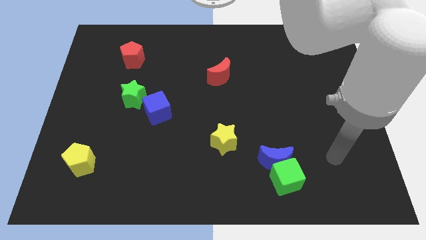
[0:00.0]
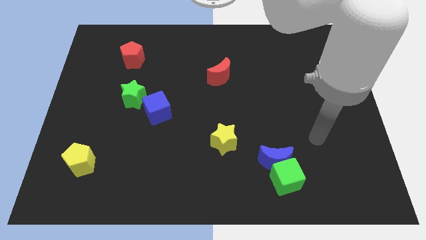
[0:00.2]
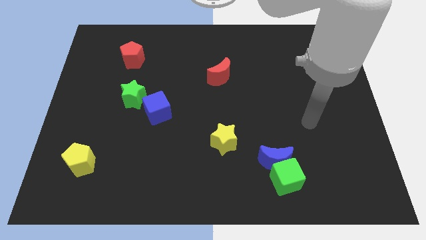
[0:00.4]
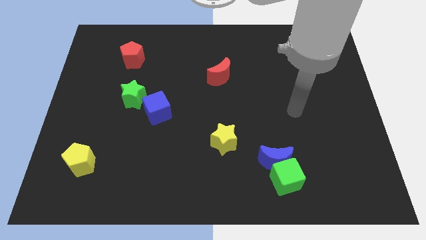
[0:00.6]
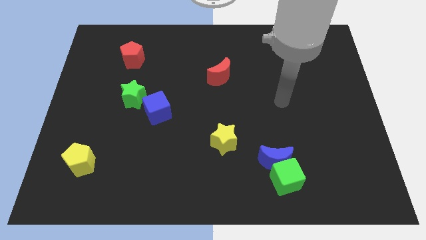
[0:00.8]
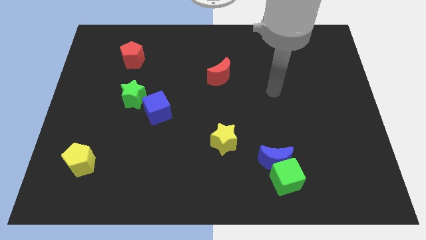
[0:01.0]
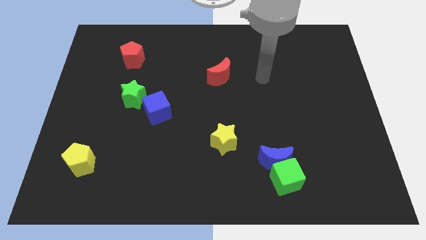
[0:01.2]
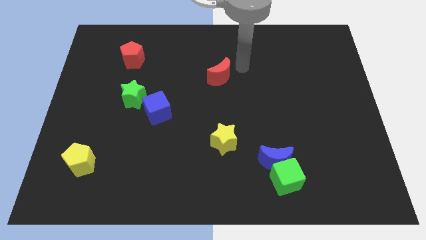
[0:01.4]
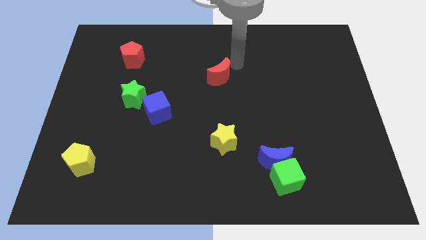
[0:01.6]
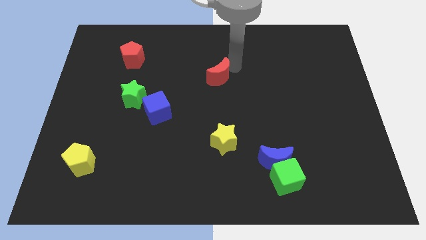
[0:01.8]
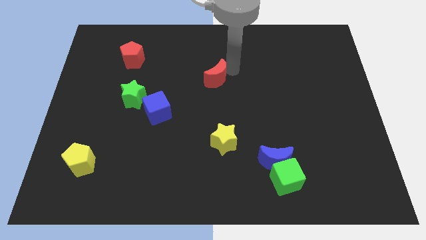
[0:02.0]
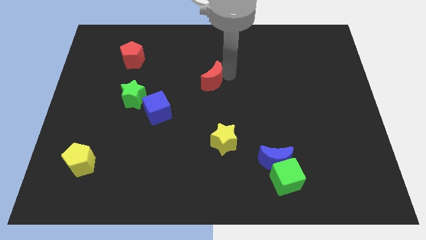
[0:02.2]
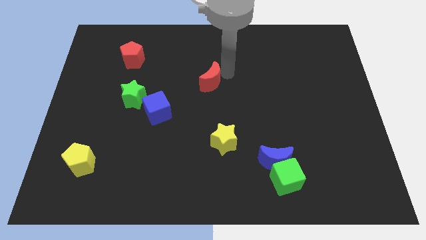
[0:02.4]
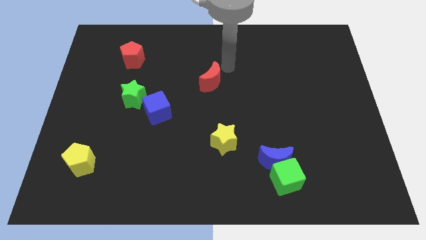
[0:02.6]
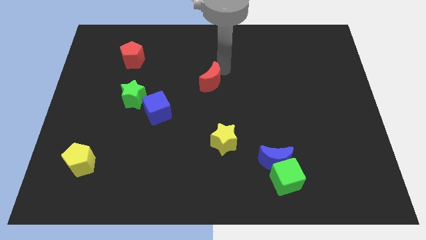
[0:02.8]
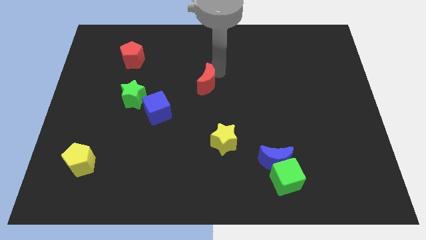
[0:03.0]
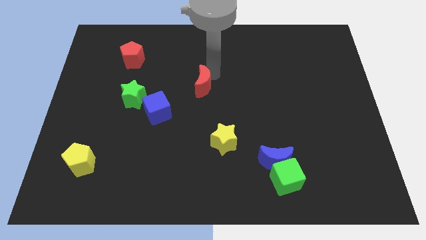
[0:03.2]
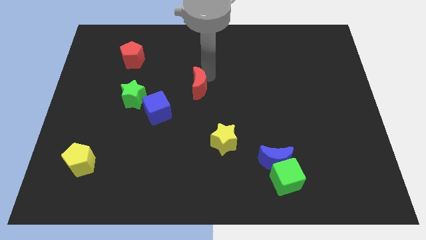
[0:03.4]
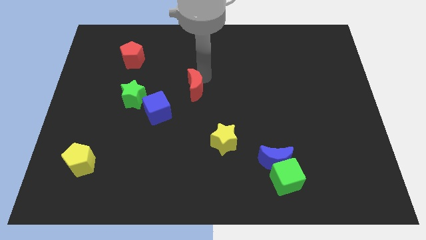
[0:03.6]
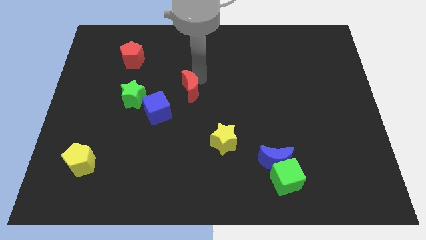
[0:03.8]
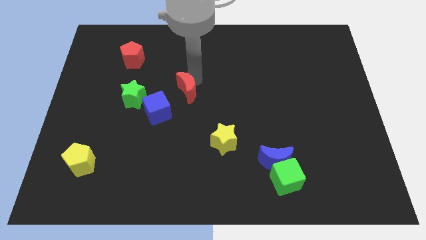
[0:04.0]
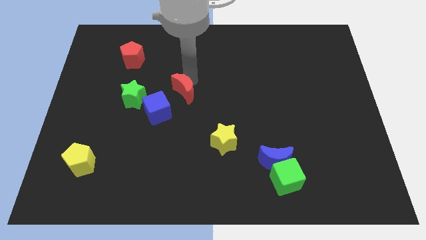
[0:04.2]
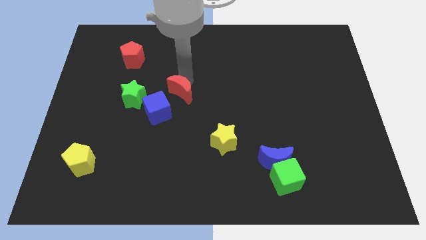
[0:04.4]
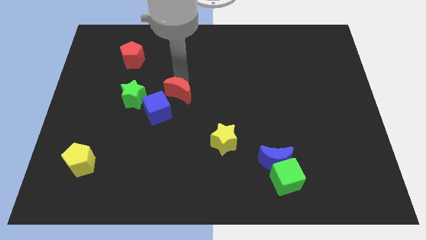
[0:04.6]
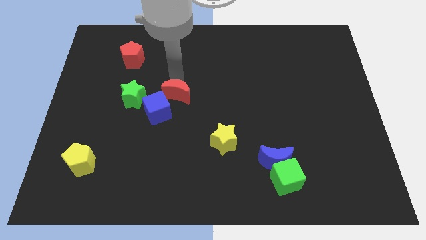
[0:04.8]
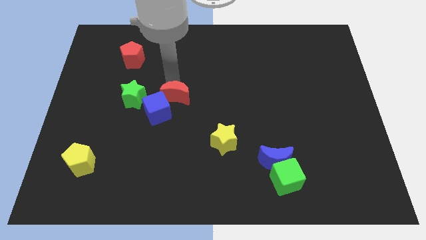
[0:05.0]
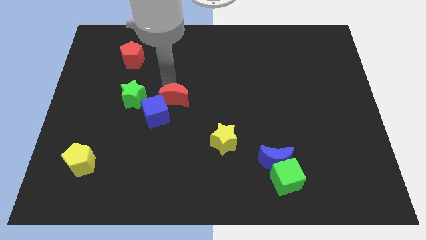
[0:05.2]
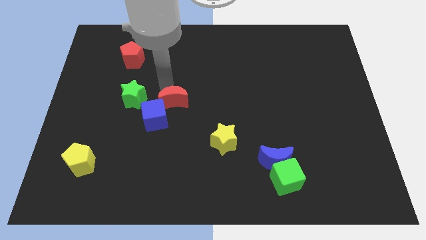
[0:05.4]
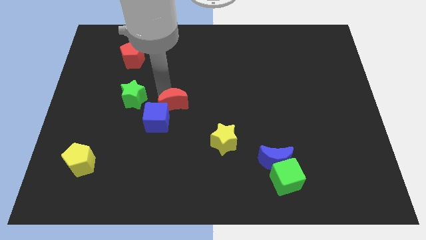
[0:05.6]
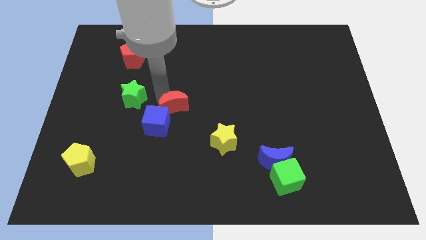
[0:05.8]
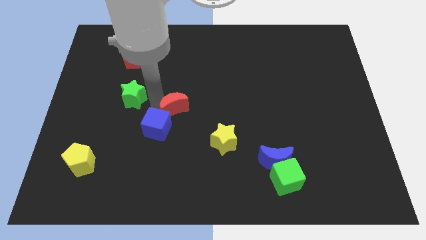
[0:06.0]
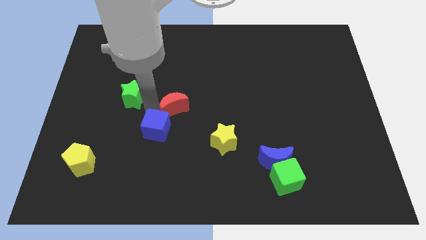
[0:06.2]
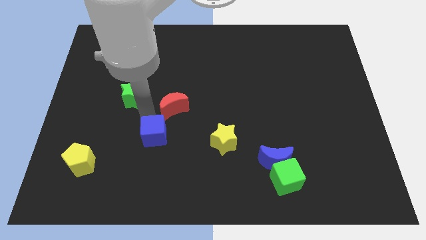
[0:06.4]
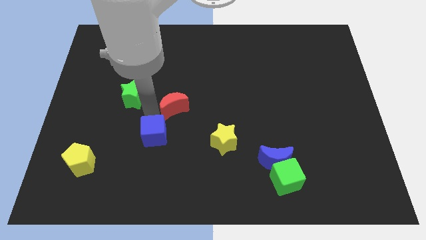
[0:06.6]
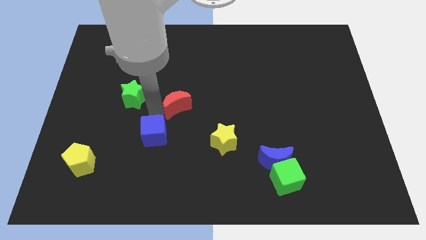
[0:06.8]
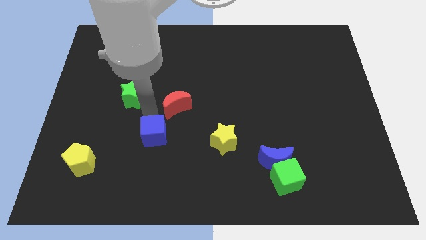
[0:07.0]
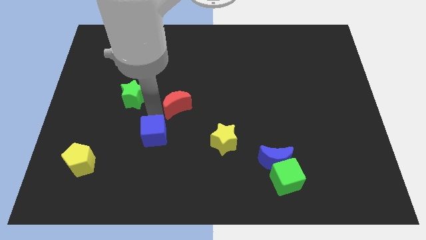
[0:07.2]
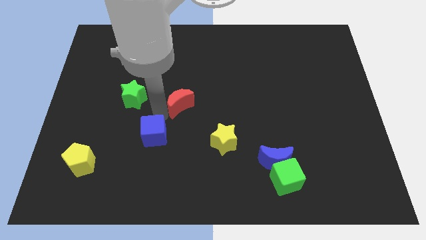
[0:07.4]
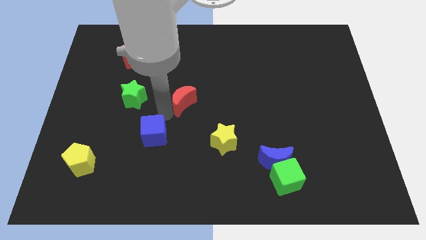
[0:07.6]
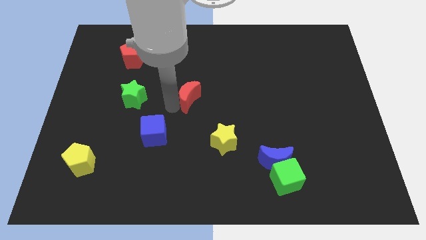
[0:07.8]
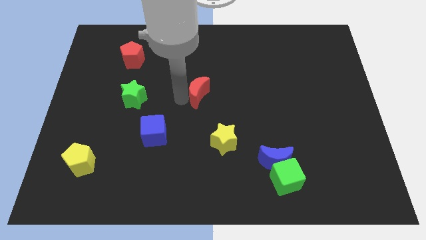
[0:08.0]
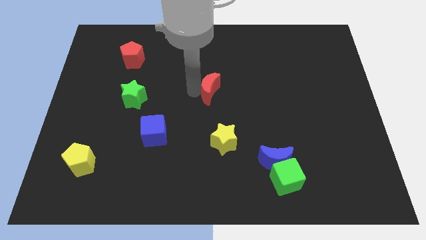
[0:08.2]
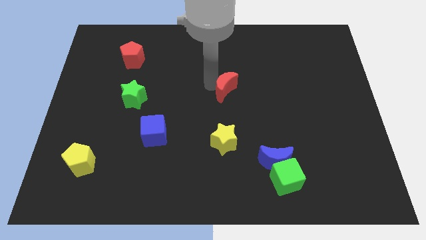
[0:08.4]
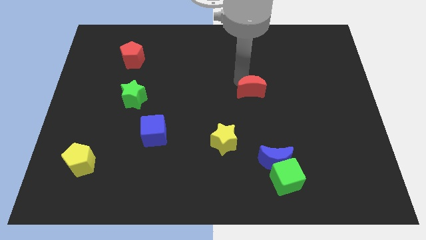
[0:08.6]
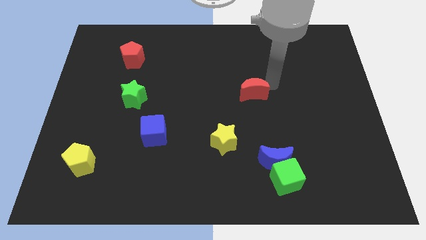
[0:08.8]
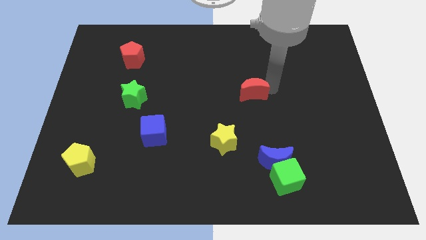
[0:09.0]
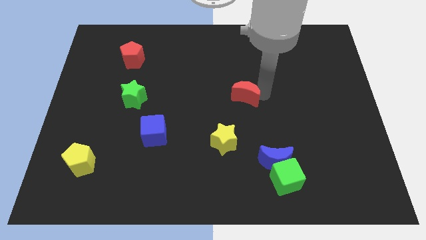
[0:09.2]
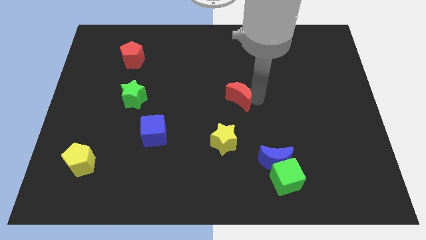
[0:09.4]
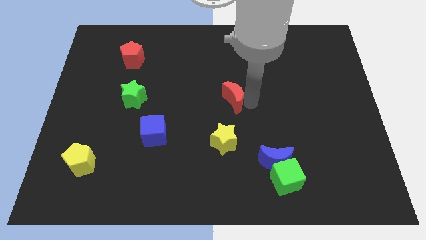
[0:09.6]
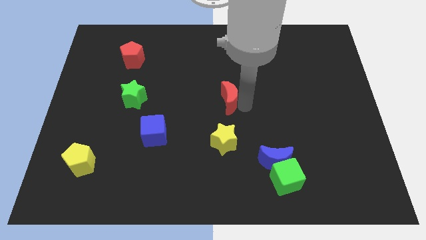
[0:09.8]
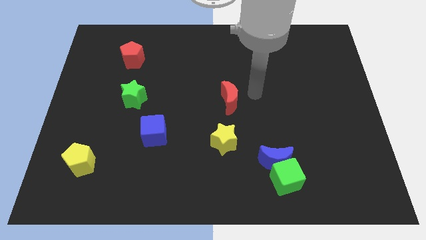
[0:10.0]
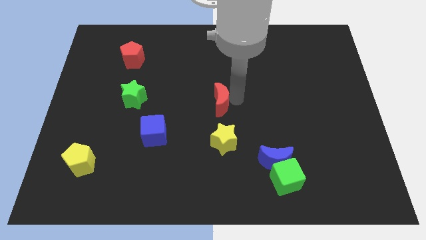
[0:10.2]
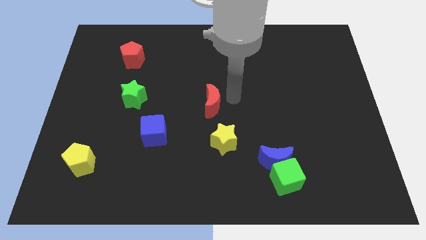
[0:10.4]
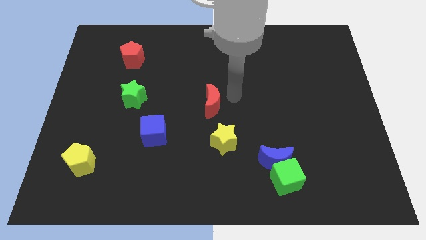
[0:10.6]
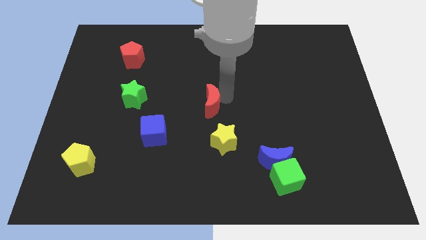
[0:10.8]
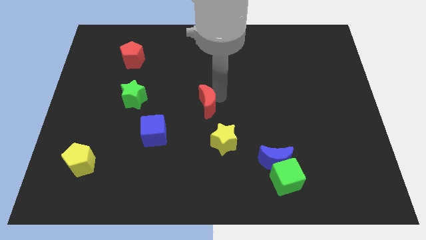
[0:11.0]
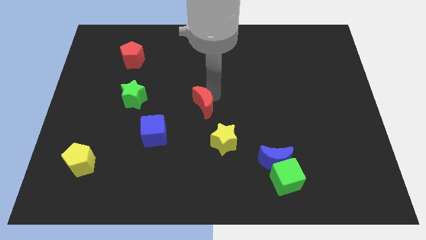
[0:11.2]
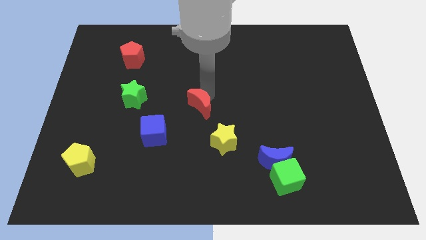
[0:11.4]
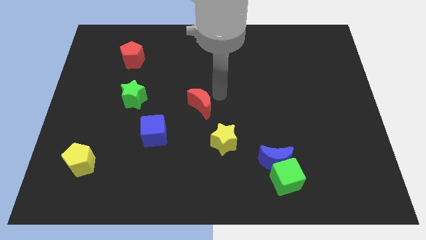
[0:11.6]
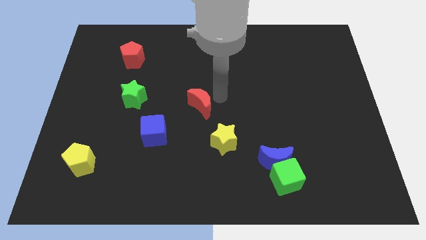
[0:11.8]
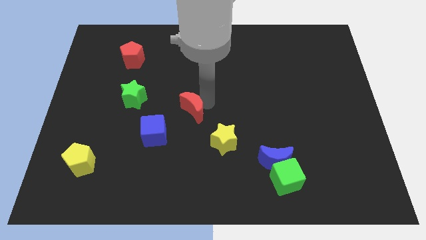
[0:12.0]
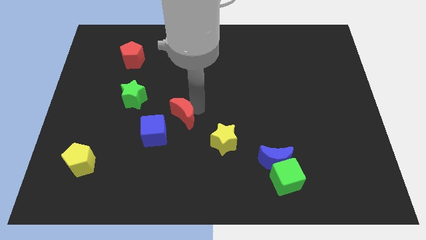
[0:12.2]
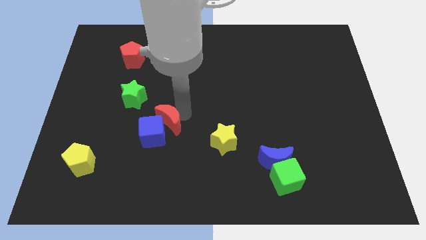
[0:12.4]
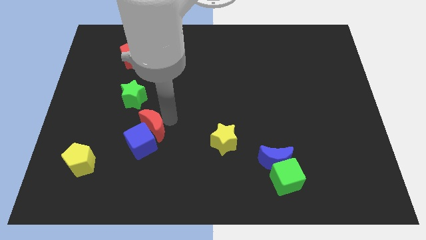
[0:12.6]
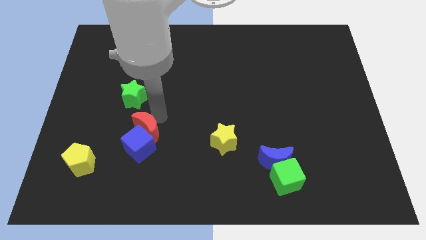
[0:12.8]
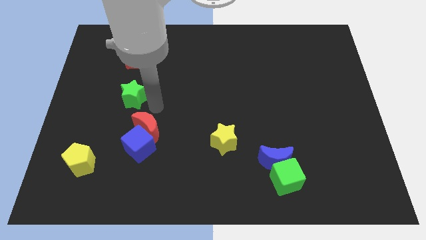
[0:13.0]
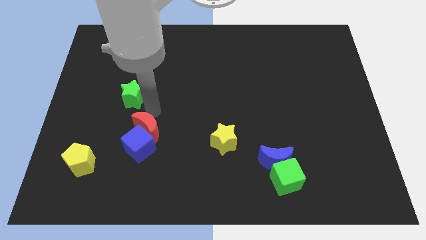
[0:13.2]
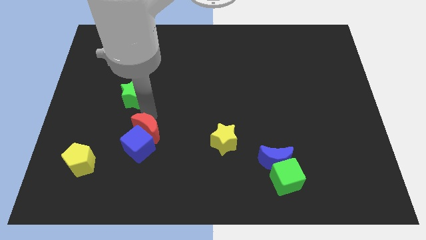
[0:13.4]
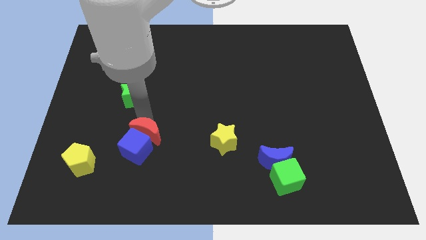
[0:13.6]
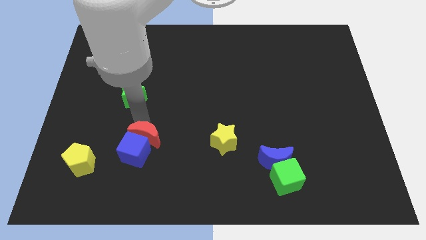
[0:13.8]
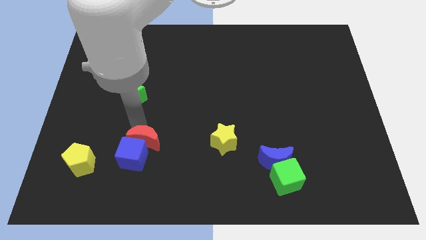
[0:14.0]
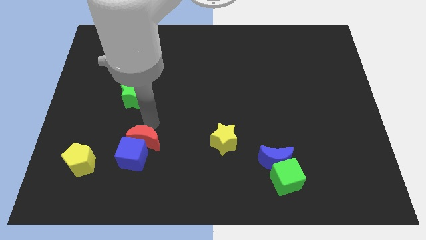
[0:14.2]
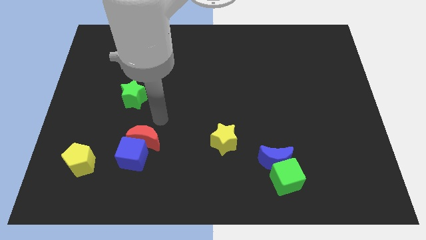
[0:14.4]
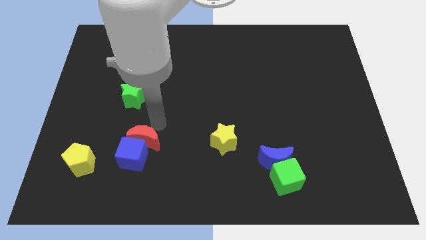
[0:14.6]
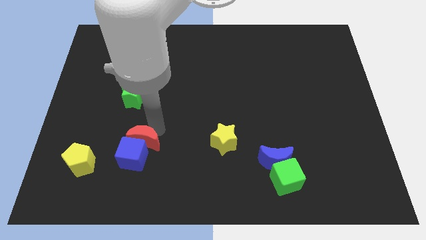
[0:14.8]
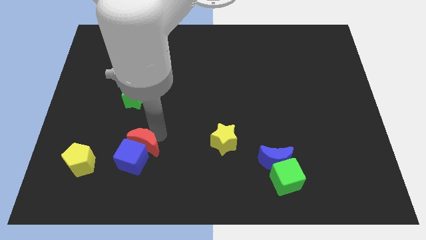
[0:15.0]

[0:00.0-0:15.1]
push the red moon to the right side of the yellow pentagon
